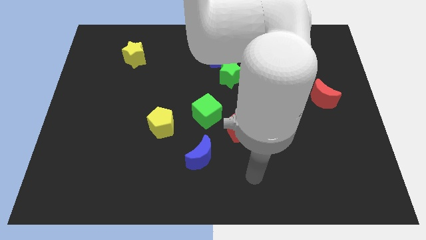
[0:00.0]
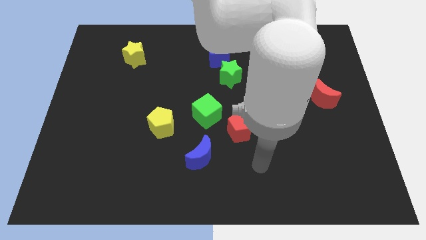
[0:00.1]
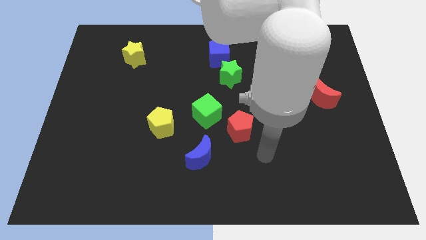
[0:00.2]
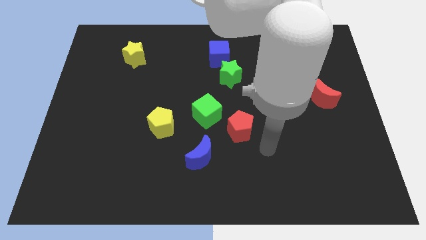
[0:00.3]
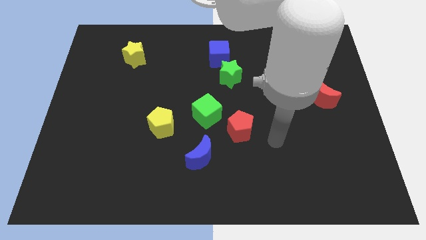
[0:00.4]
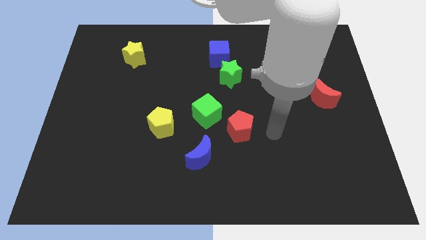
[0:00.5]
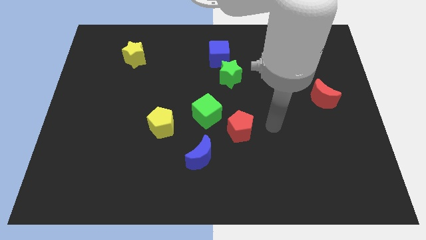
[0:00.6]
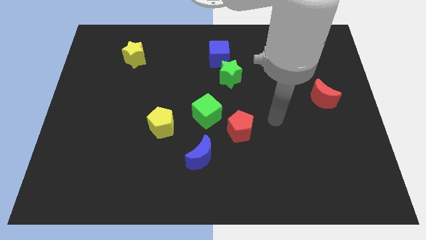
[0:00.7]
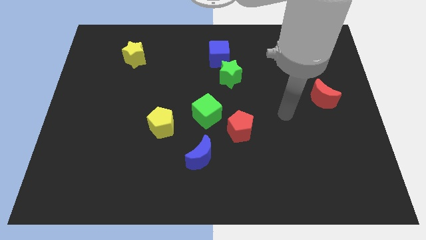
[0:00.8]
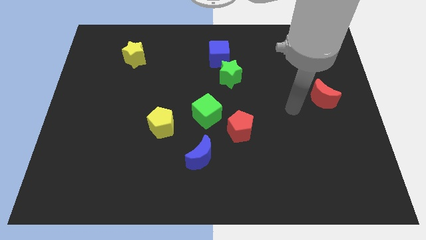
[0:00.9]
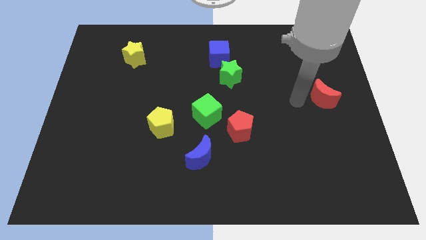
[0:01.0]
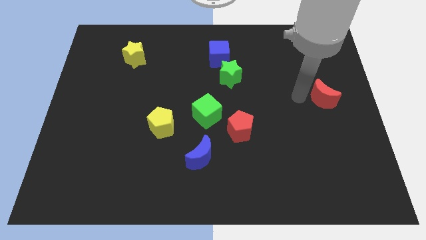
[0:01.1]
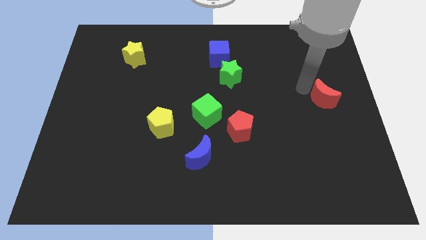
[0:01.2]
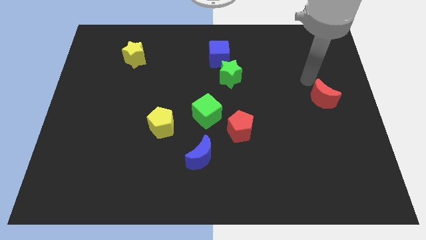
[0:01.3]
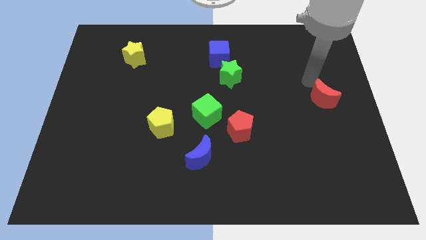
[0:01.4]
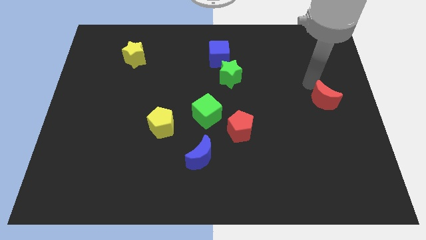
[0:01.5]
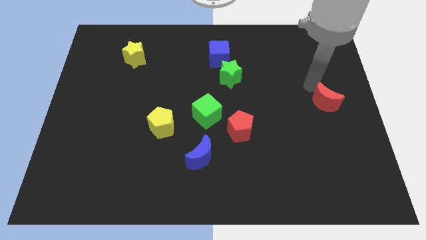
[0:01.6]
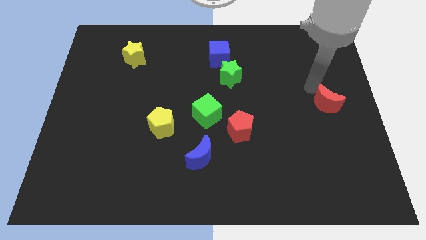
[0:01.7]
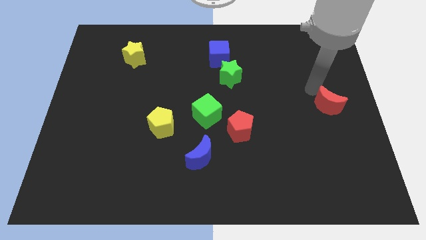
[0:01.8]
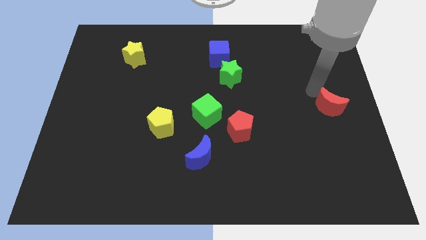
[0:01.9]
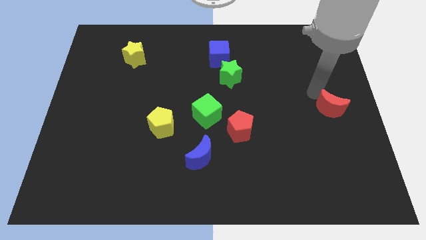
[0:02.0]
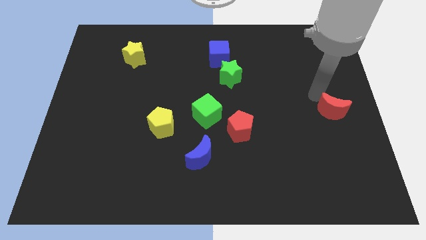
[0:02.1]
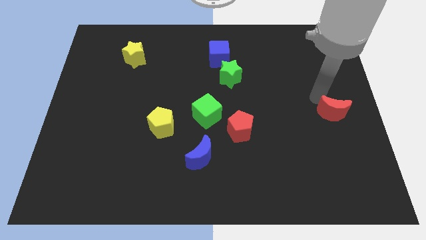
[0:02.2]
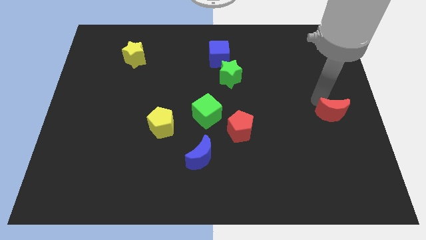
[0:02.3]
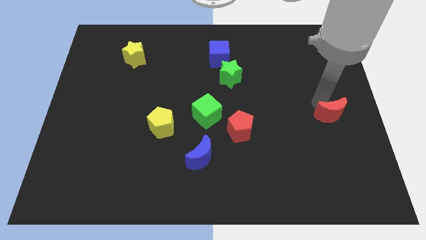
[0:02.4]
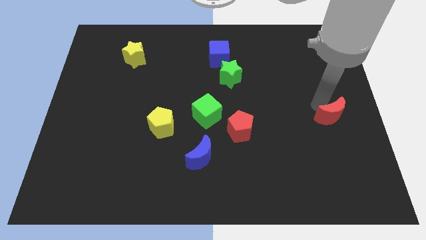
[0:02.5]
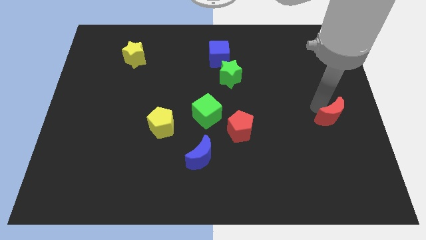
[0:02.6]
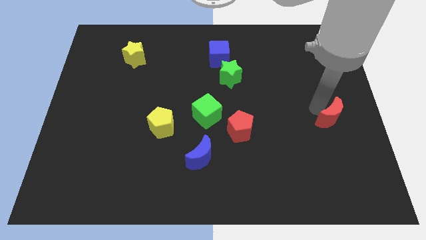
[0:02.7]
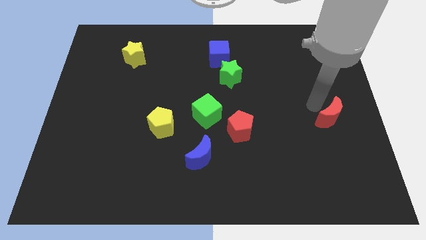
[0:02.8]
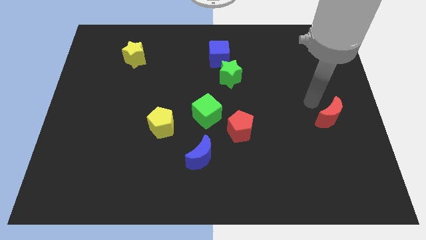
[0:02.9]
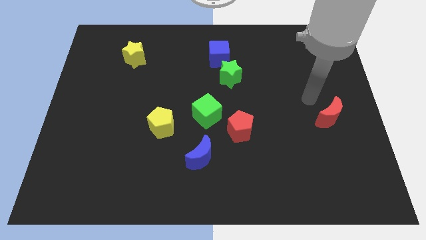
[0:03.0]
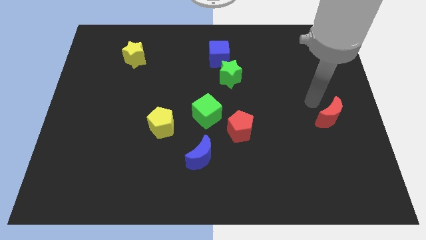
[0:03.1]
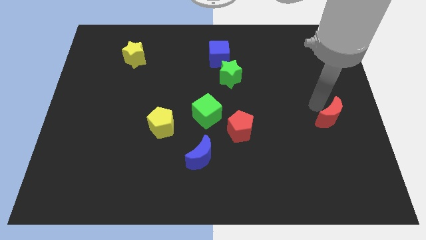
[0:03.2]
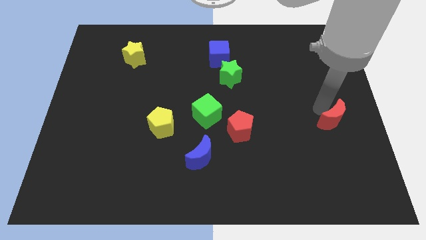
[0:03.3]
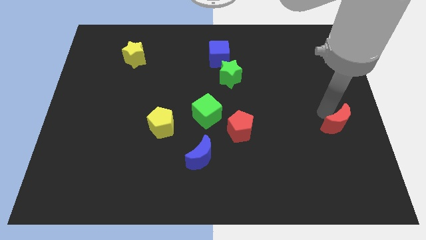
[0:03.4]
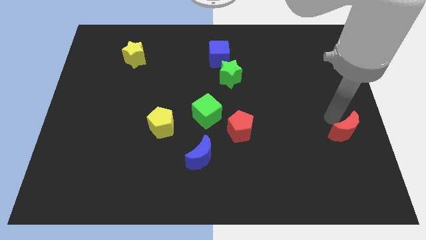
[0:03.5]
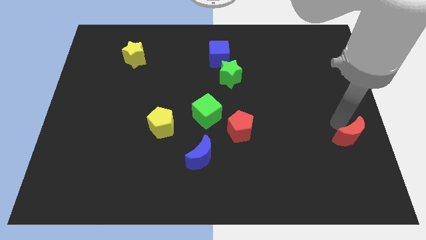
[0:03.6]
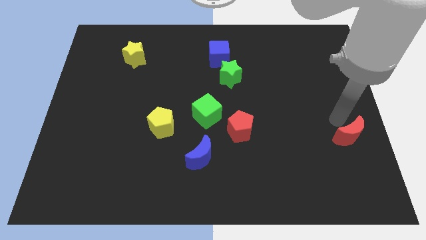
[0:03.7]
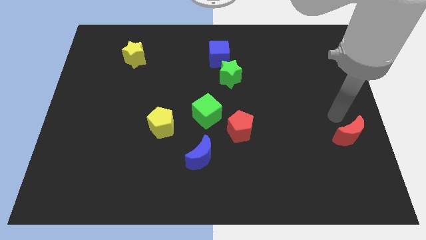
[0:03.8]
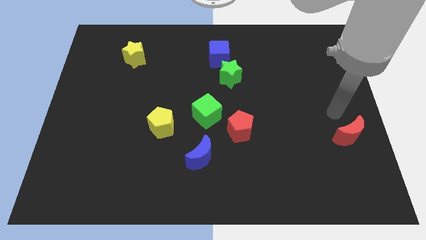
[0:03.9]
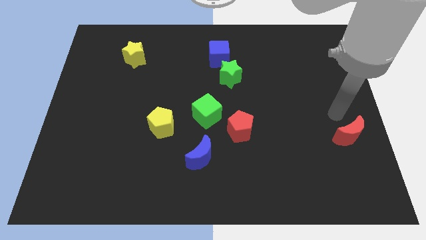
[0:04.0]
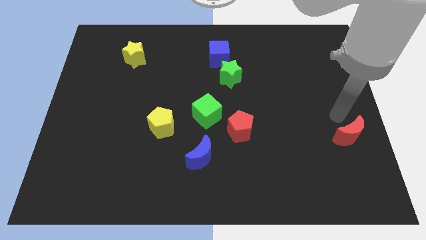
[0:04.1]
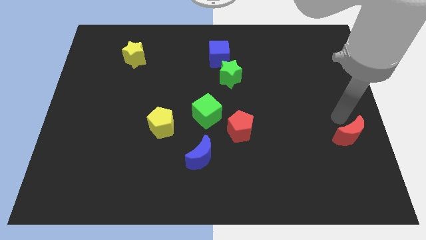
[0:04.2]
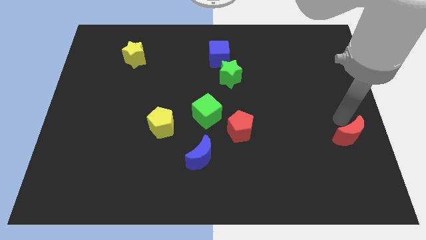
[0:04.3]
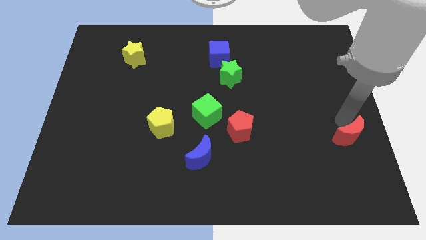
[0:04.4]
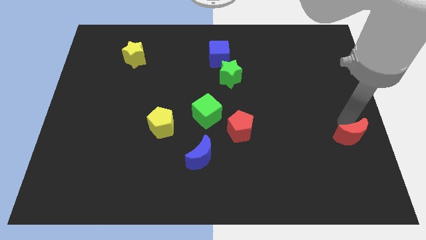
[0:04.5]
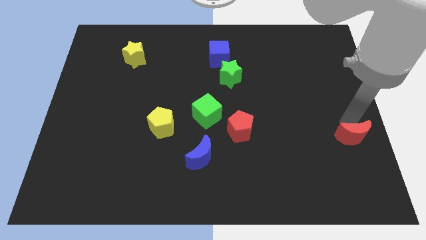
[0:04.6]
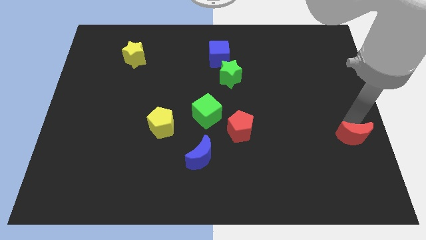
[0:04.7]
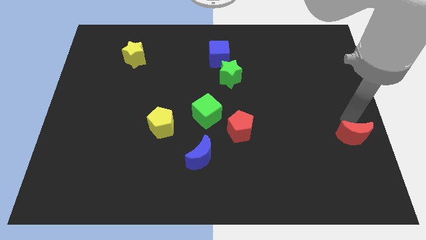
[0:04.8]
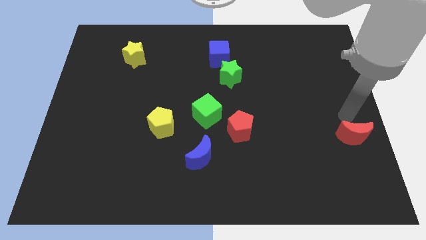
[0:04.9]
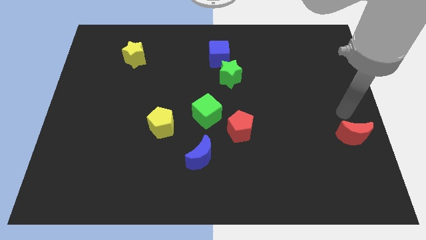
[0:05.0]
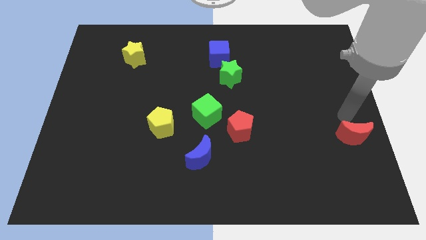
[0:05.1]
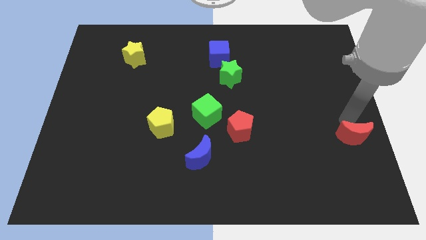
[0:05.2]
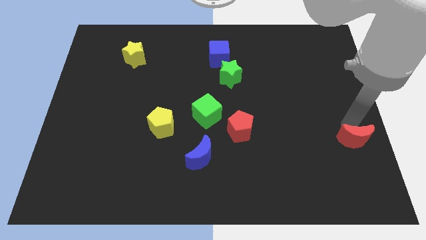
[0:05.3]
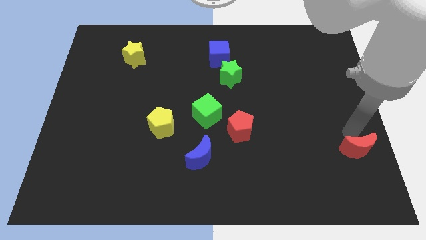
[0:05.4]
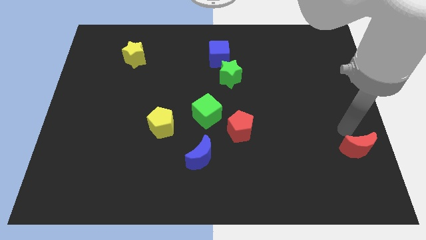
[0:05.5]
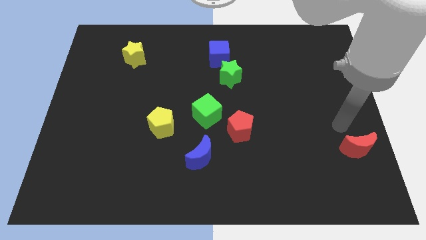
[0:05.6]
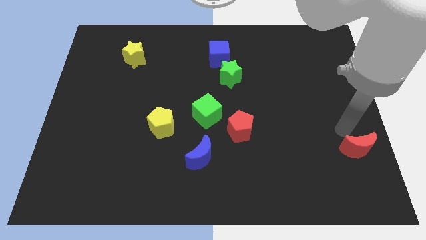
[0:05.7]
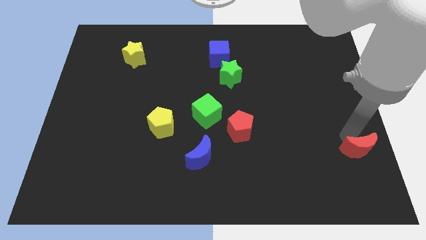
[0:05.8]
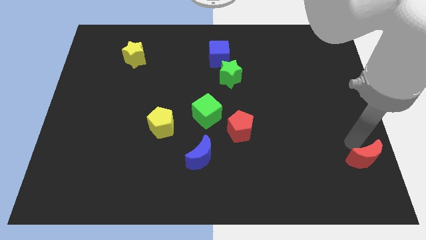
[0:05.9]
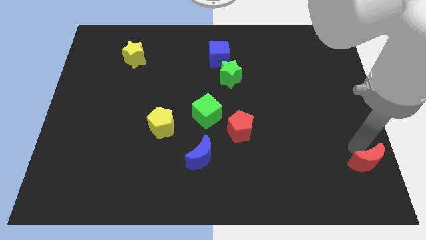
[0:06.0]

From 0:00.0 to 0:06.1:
slide the red moon to the bottom right corner

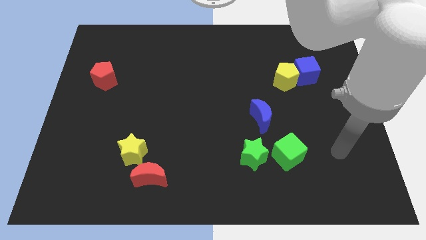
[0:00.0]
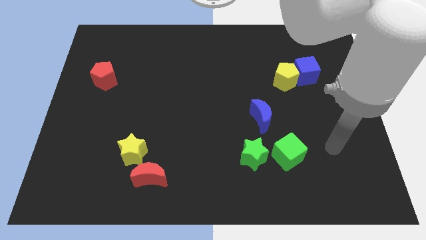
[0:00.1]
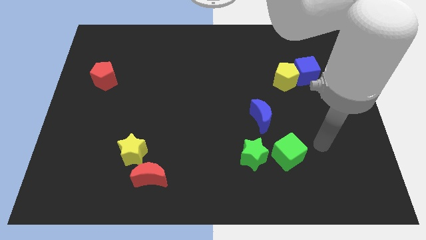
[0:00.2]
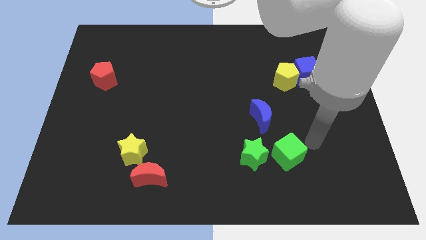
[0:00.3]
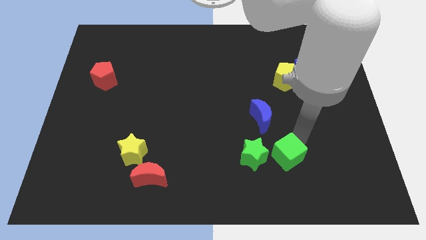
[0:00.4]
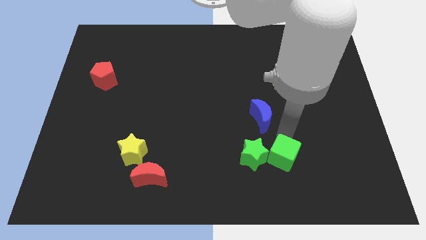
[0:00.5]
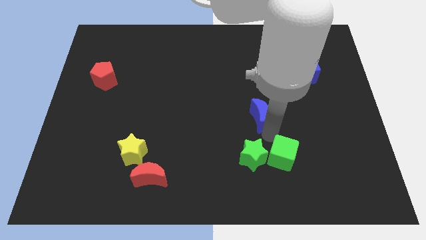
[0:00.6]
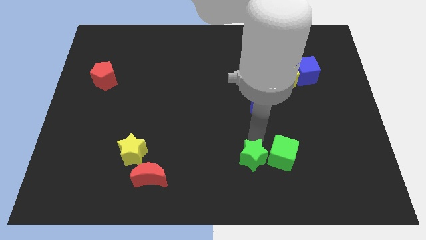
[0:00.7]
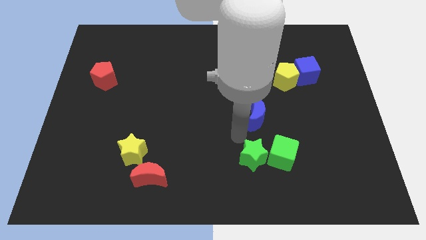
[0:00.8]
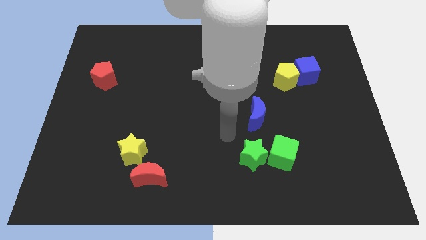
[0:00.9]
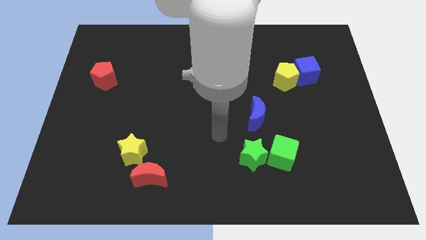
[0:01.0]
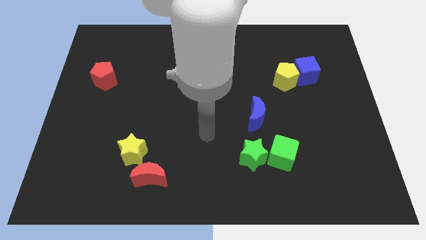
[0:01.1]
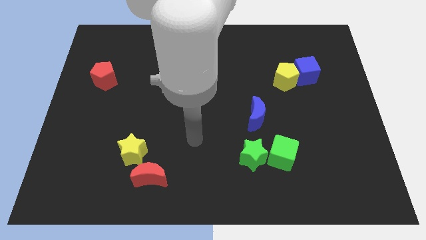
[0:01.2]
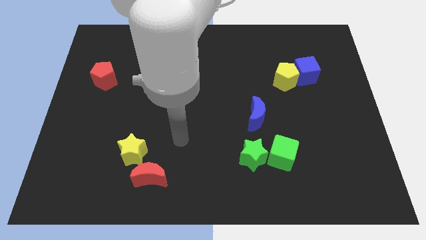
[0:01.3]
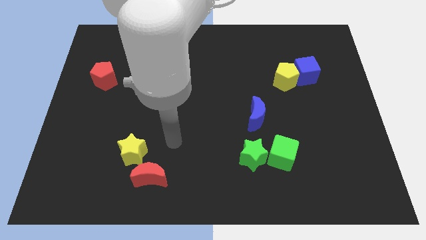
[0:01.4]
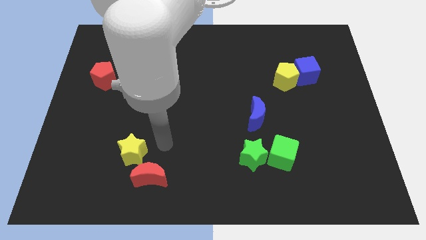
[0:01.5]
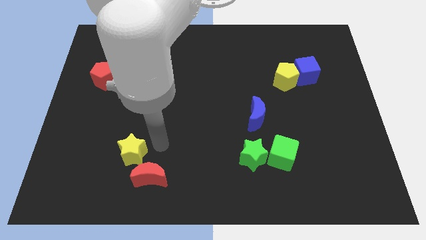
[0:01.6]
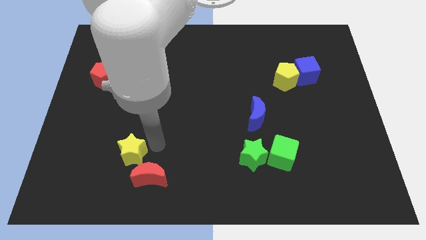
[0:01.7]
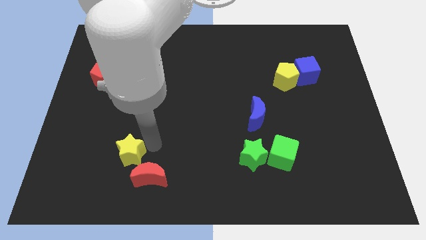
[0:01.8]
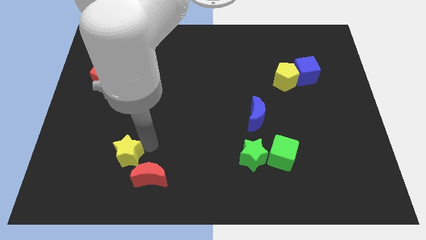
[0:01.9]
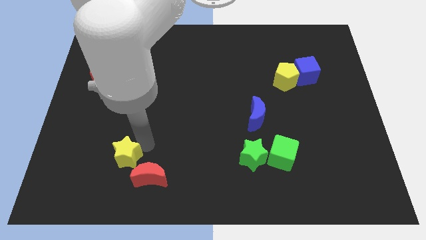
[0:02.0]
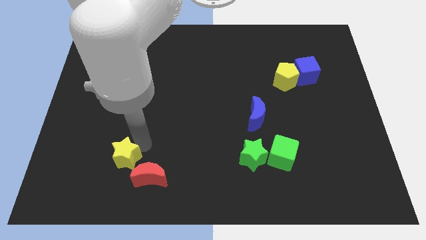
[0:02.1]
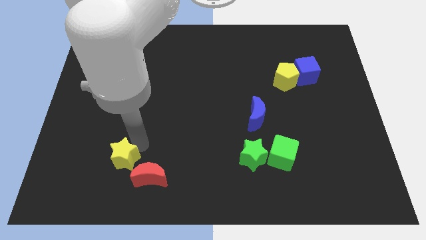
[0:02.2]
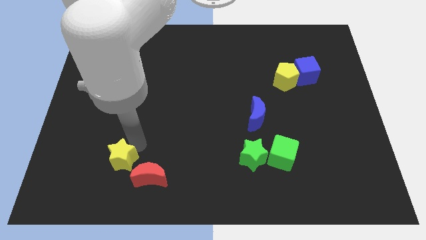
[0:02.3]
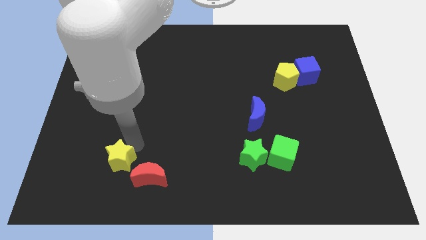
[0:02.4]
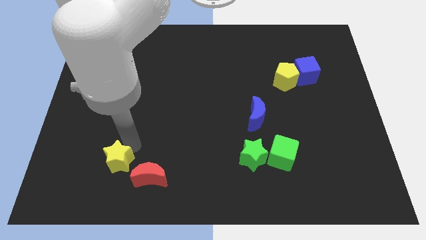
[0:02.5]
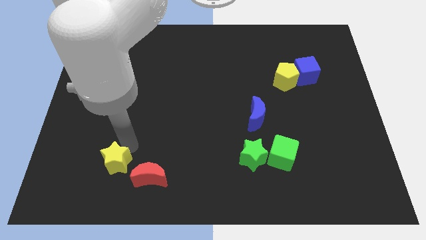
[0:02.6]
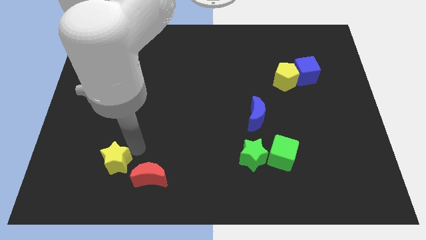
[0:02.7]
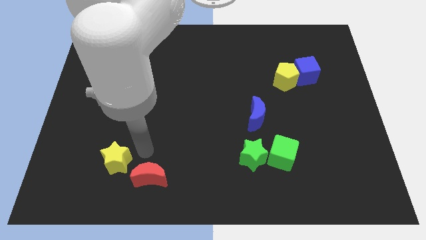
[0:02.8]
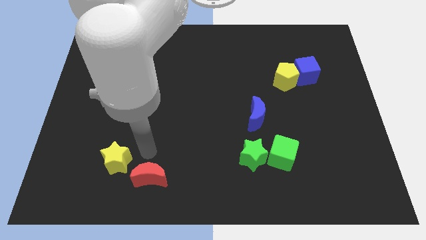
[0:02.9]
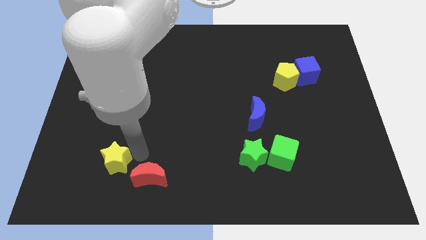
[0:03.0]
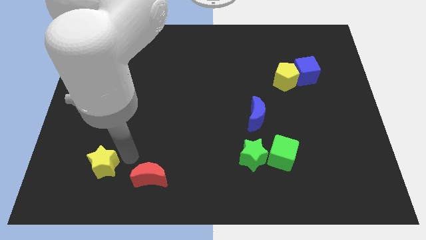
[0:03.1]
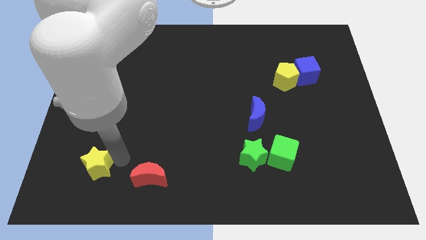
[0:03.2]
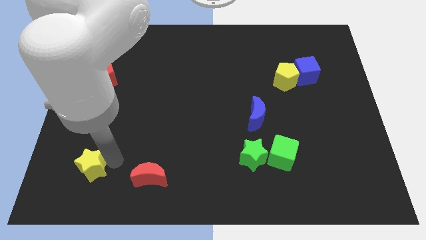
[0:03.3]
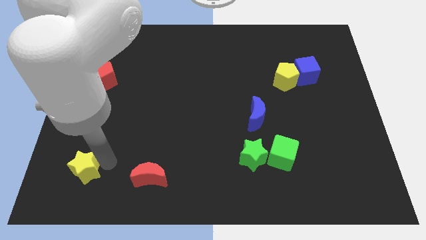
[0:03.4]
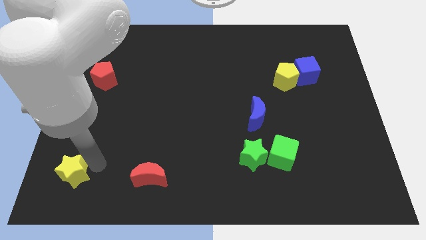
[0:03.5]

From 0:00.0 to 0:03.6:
push the yellow star to the lower left corner
